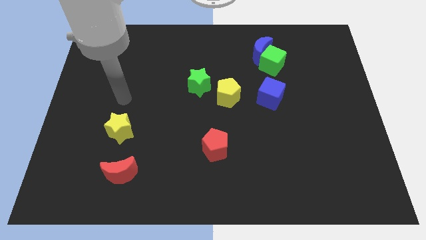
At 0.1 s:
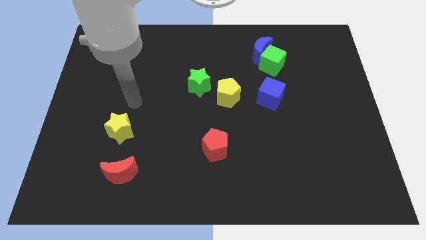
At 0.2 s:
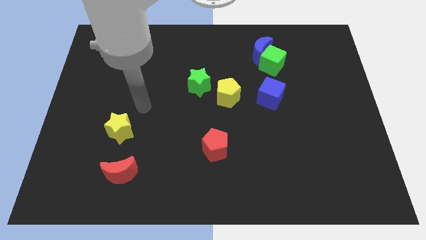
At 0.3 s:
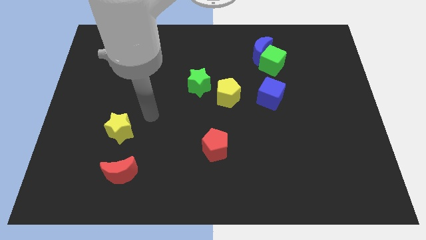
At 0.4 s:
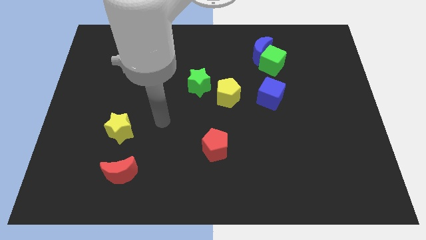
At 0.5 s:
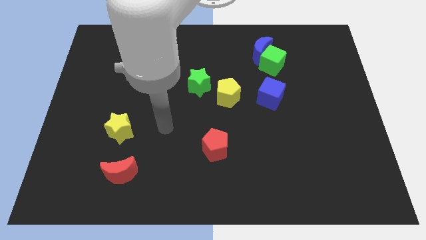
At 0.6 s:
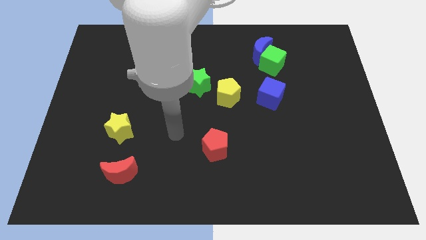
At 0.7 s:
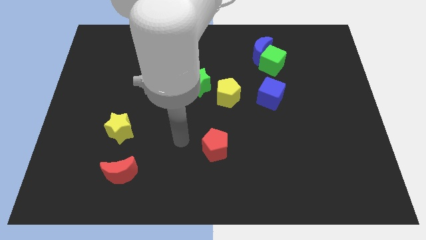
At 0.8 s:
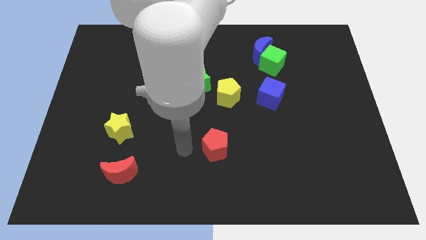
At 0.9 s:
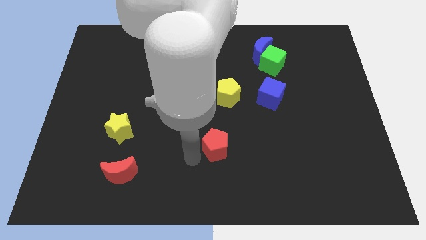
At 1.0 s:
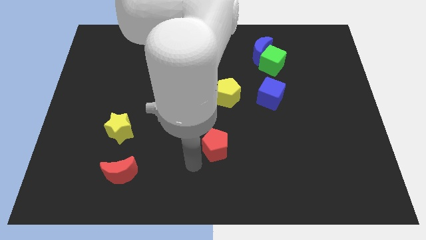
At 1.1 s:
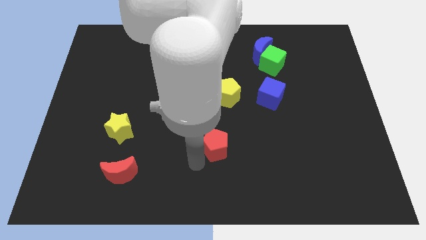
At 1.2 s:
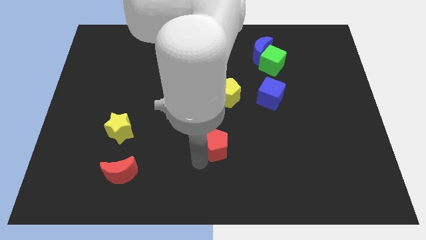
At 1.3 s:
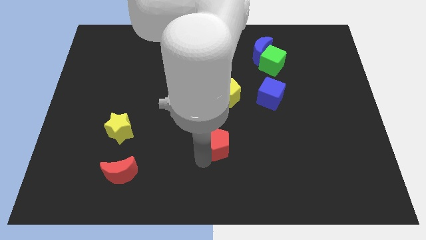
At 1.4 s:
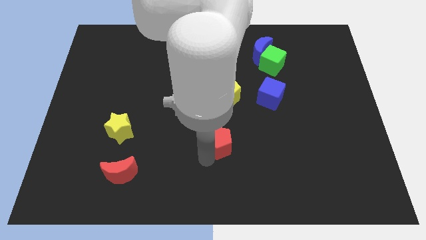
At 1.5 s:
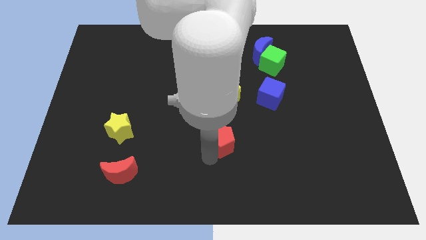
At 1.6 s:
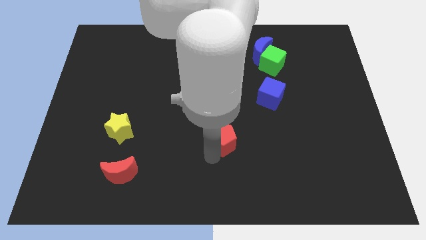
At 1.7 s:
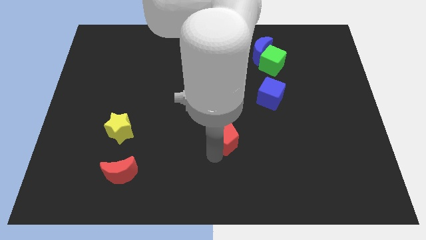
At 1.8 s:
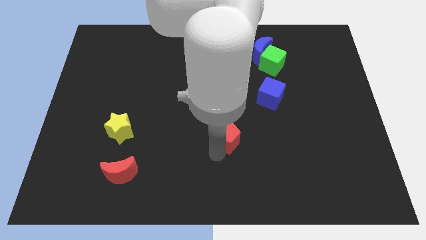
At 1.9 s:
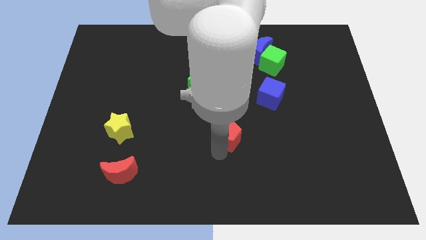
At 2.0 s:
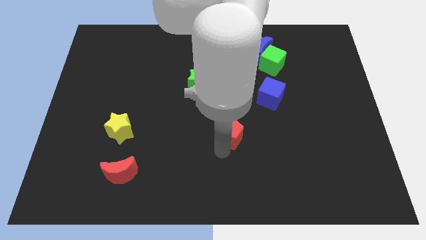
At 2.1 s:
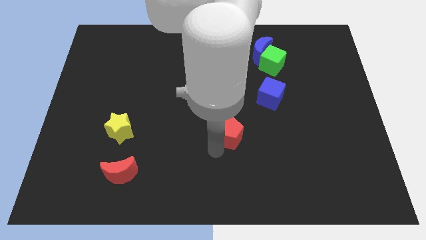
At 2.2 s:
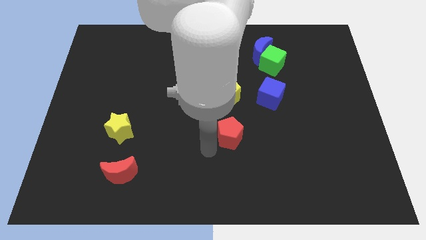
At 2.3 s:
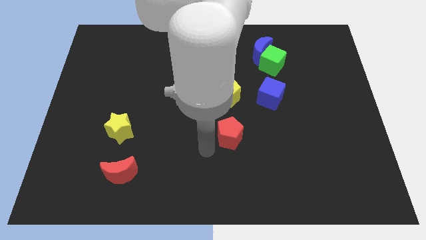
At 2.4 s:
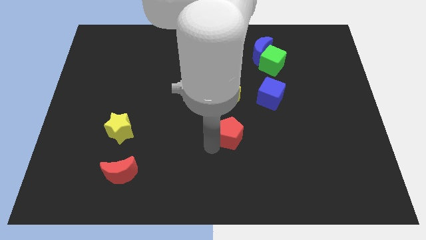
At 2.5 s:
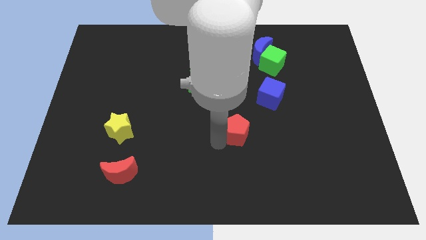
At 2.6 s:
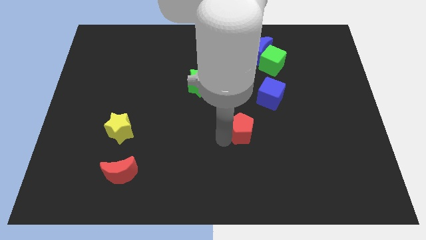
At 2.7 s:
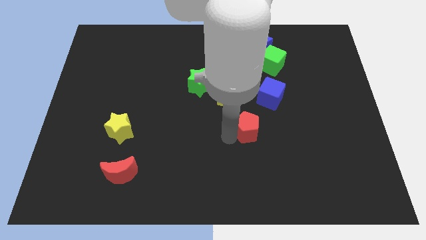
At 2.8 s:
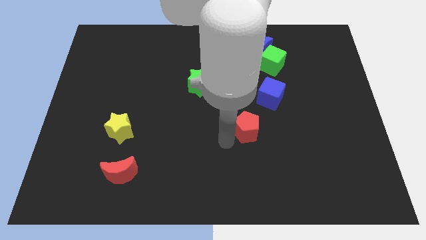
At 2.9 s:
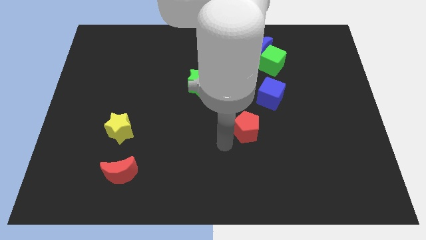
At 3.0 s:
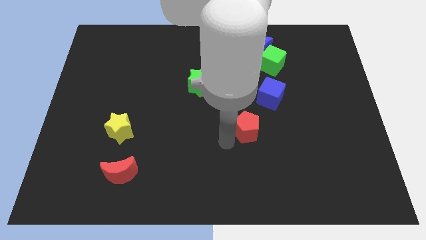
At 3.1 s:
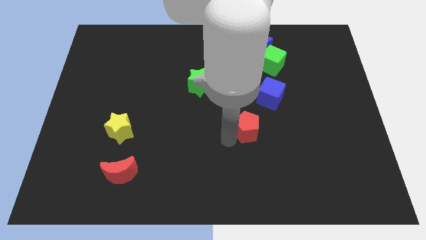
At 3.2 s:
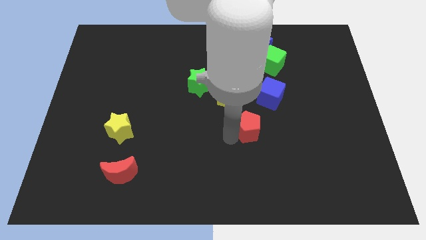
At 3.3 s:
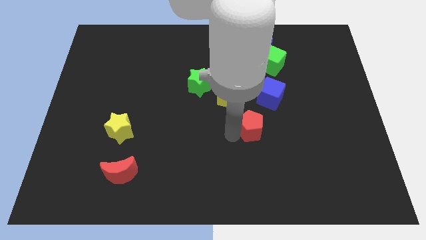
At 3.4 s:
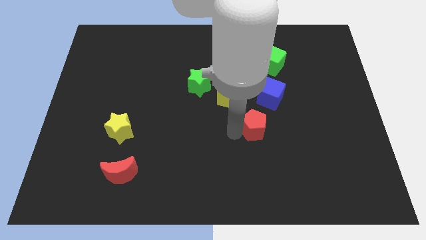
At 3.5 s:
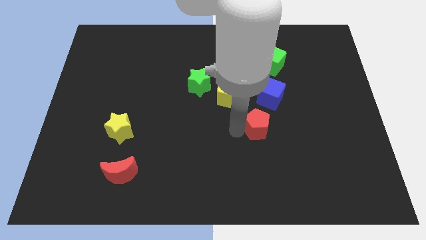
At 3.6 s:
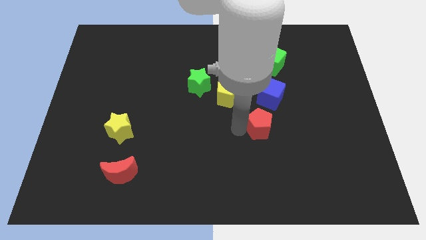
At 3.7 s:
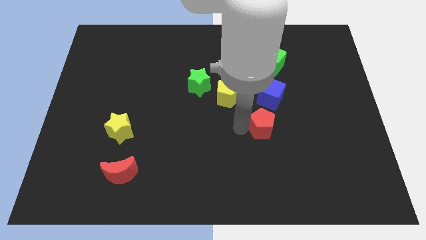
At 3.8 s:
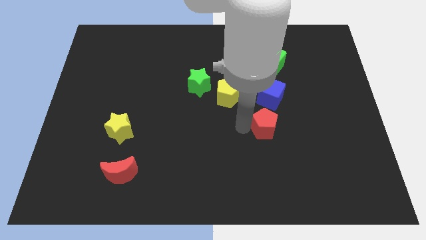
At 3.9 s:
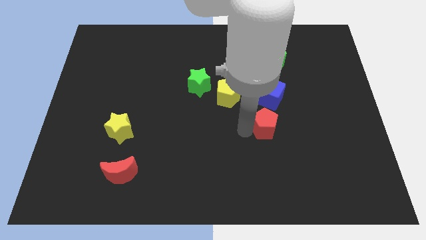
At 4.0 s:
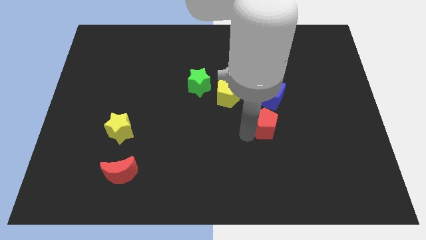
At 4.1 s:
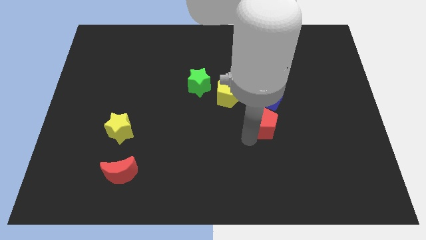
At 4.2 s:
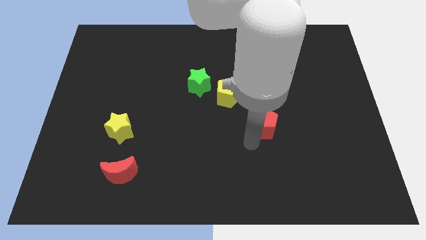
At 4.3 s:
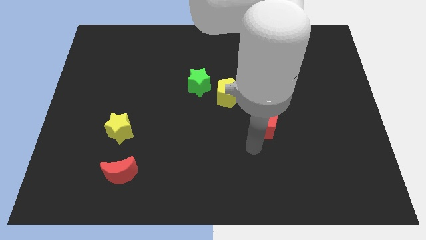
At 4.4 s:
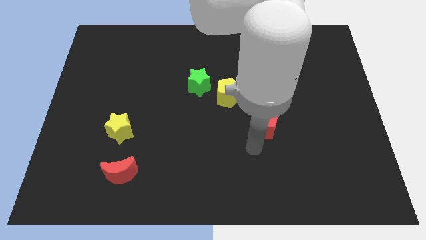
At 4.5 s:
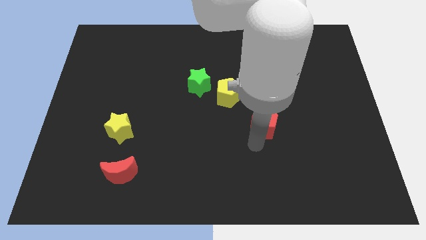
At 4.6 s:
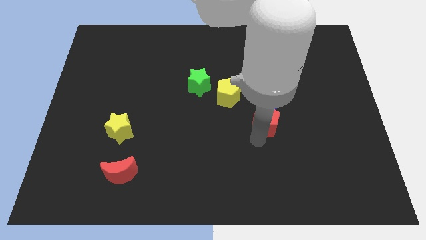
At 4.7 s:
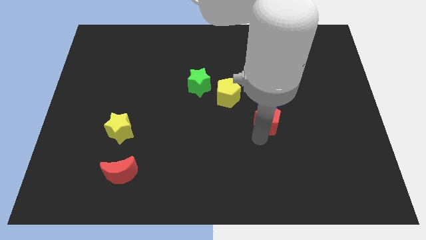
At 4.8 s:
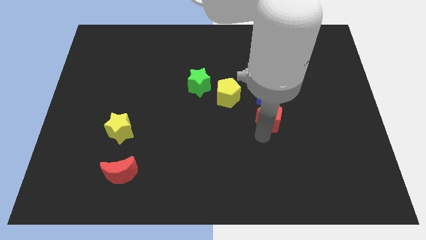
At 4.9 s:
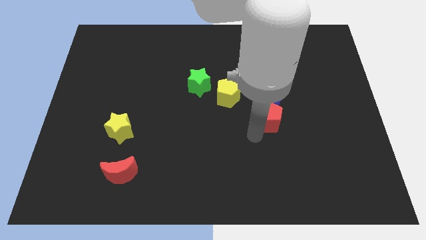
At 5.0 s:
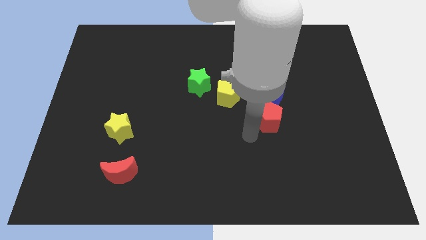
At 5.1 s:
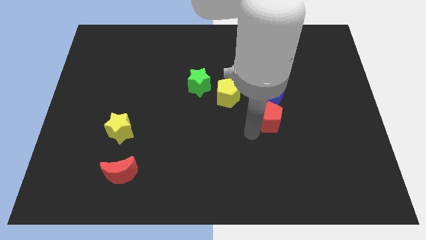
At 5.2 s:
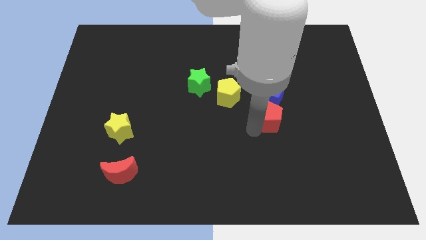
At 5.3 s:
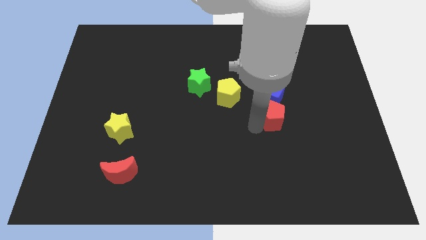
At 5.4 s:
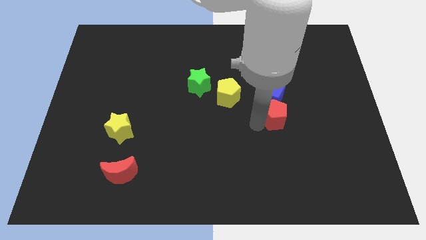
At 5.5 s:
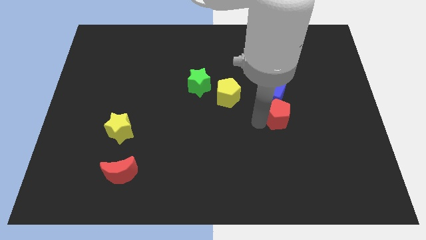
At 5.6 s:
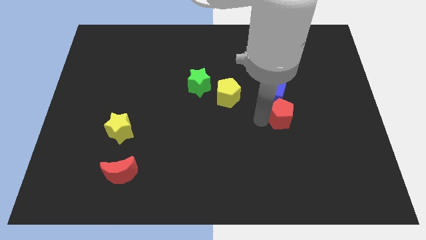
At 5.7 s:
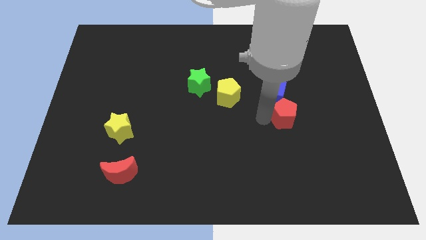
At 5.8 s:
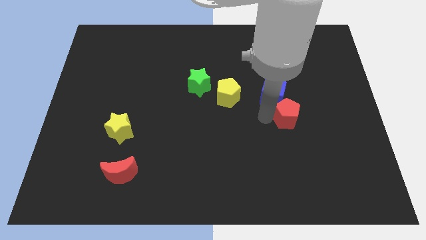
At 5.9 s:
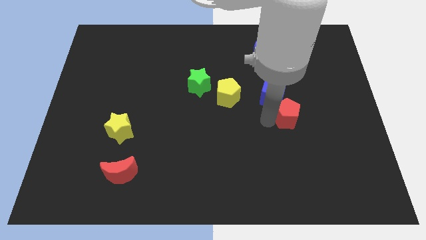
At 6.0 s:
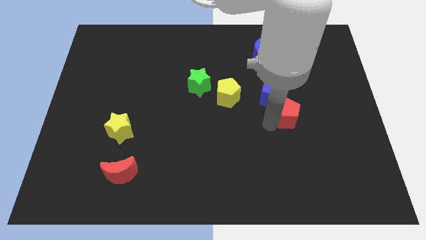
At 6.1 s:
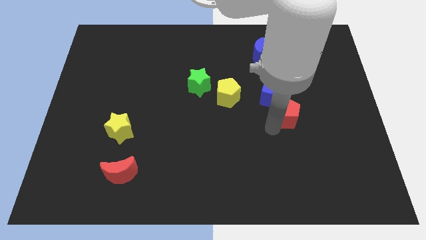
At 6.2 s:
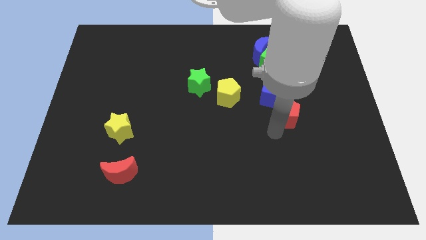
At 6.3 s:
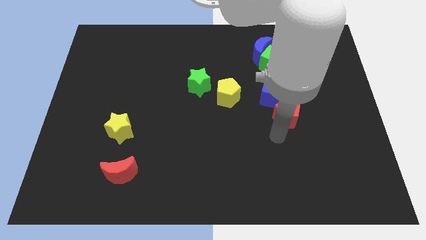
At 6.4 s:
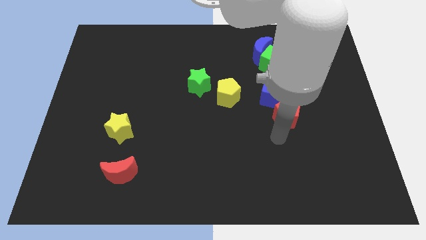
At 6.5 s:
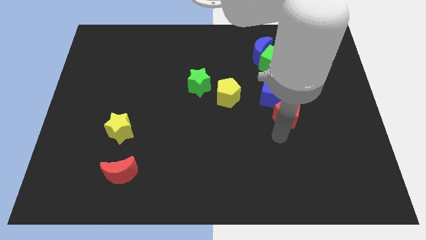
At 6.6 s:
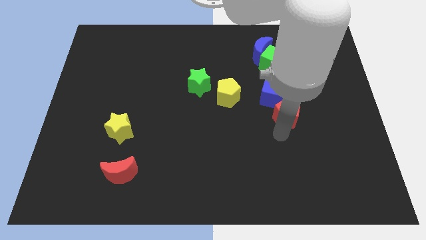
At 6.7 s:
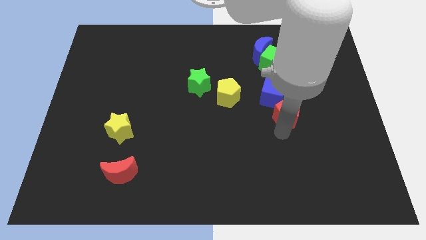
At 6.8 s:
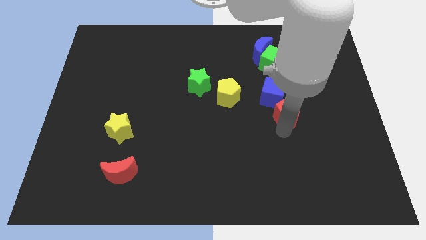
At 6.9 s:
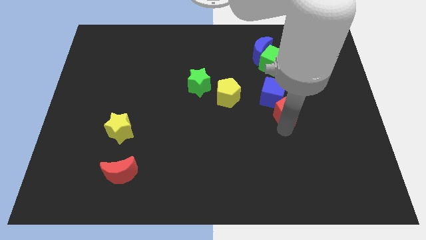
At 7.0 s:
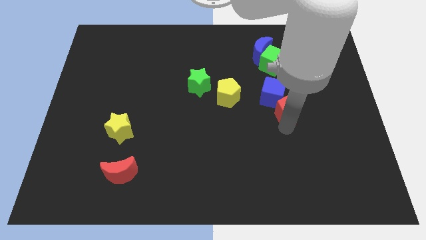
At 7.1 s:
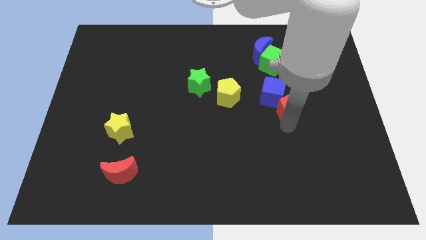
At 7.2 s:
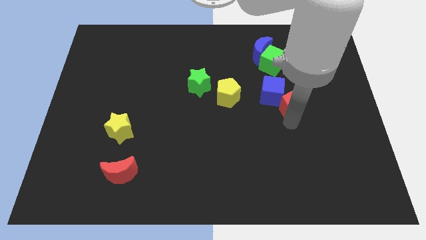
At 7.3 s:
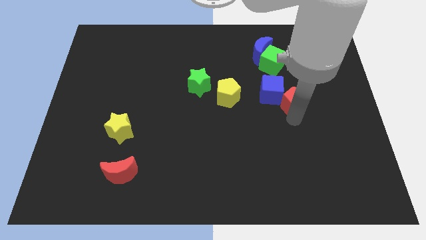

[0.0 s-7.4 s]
push the red pentagon up and then to the right

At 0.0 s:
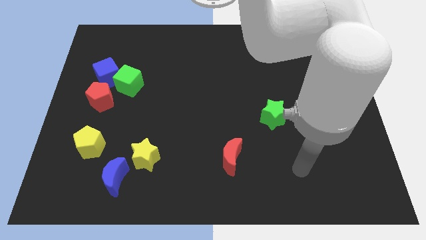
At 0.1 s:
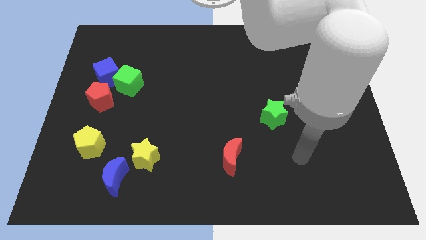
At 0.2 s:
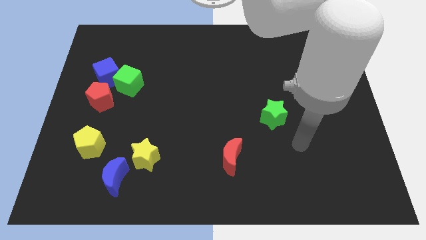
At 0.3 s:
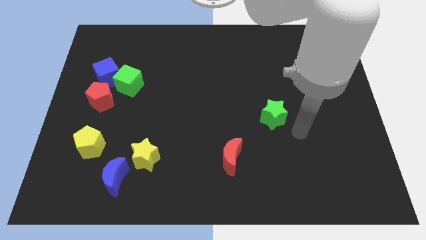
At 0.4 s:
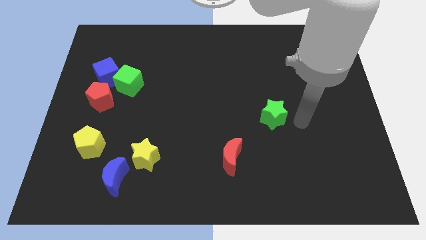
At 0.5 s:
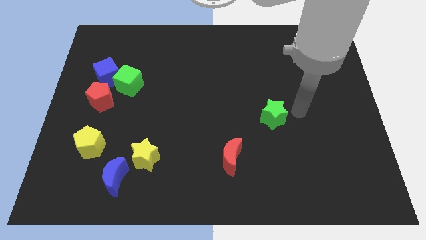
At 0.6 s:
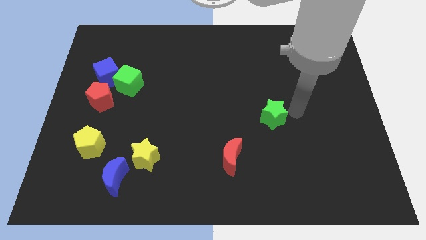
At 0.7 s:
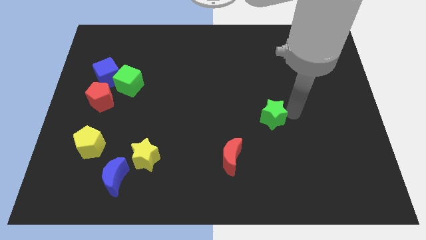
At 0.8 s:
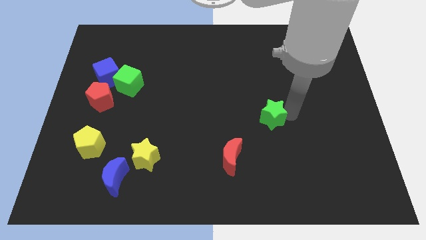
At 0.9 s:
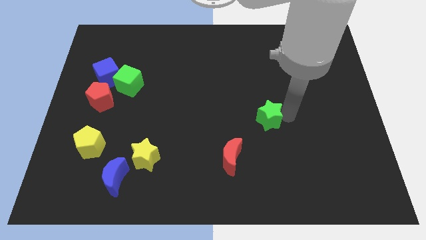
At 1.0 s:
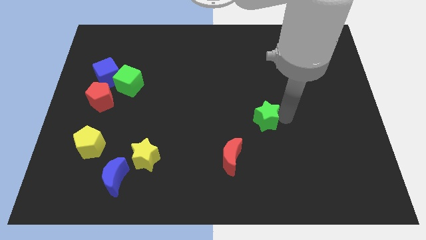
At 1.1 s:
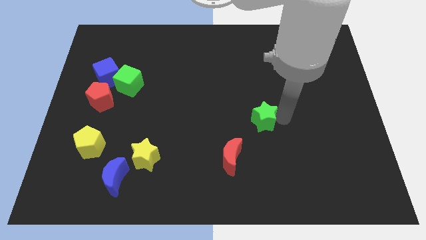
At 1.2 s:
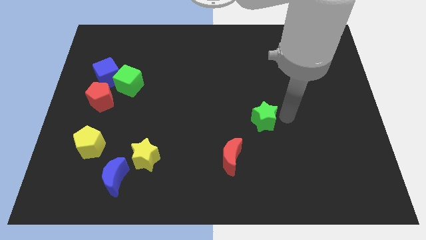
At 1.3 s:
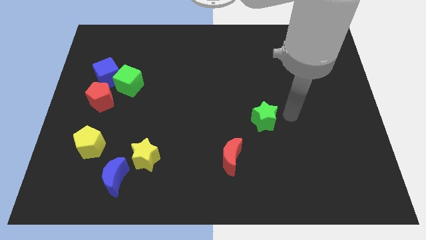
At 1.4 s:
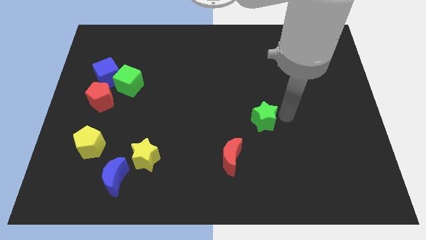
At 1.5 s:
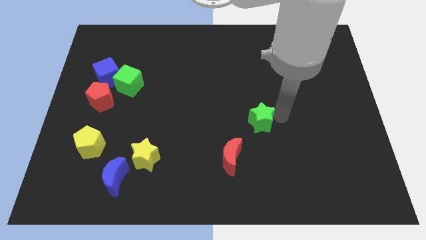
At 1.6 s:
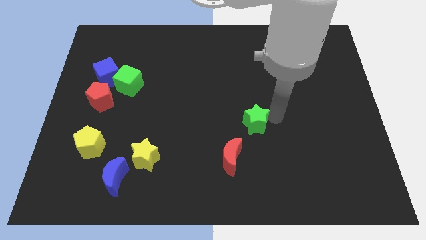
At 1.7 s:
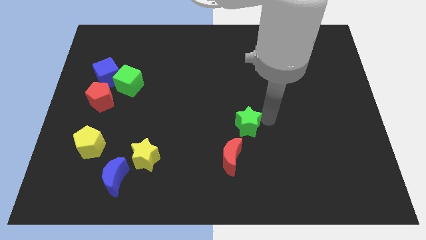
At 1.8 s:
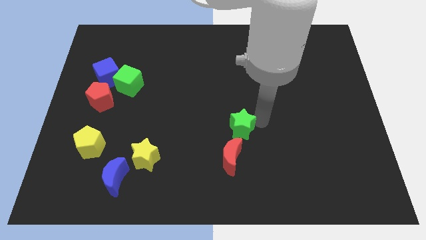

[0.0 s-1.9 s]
slide the green star left a little bit
